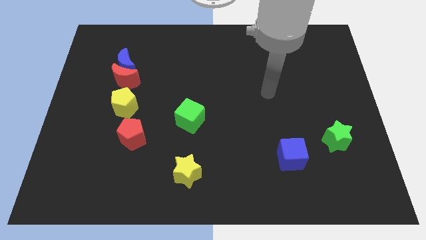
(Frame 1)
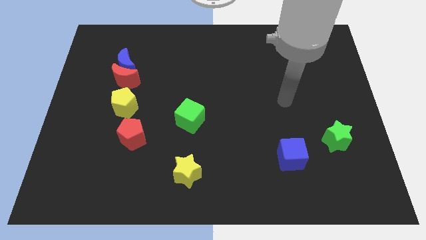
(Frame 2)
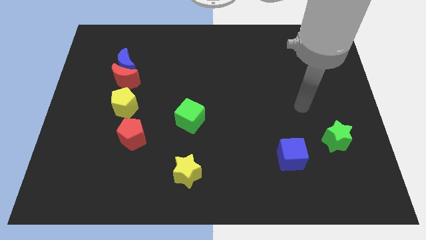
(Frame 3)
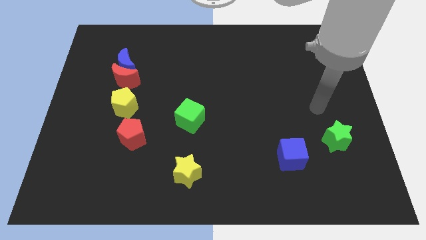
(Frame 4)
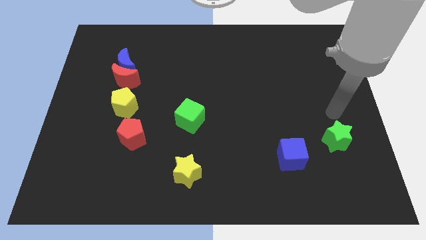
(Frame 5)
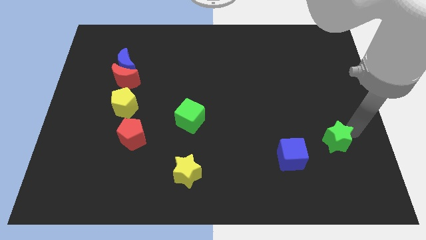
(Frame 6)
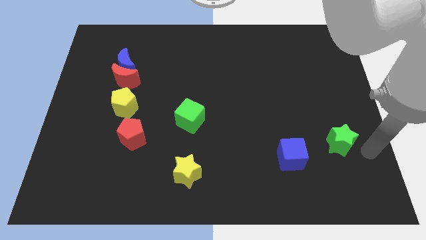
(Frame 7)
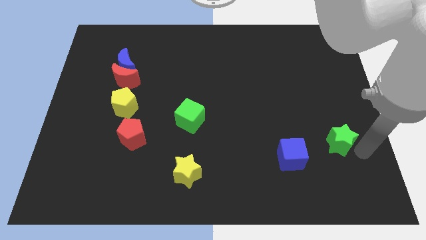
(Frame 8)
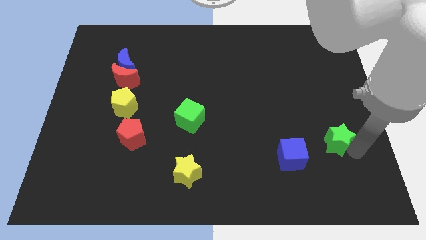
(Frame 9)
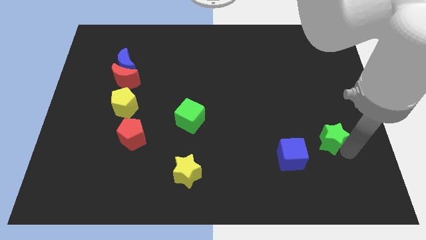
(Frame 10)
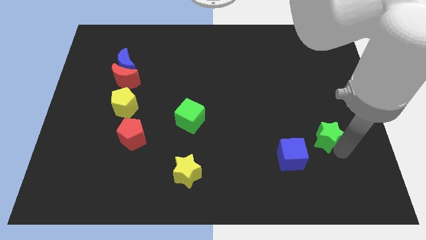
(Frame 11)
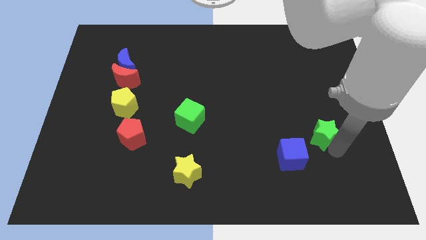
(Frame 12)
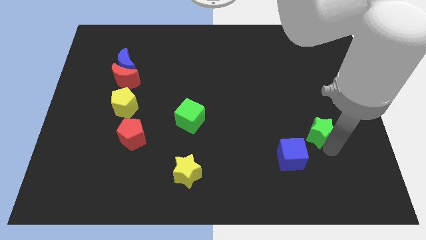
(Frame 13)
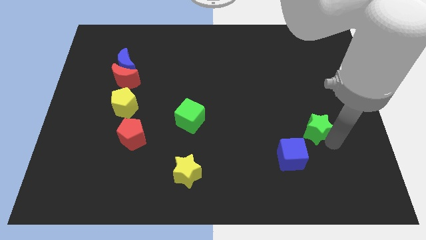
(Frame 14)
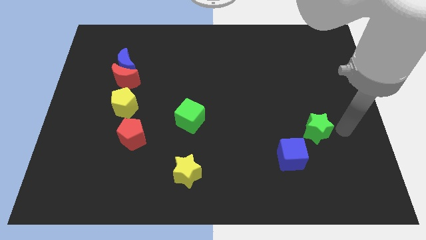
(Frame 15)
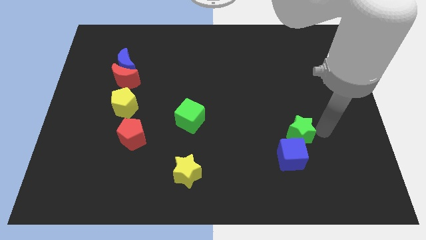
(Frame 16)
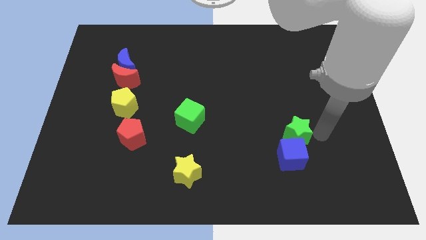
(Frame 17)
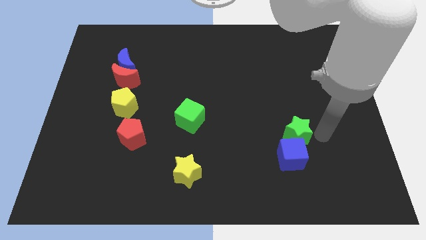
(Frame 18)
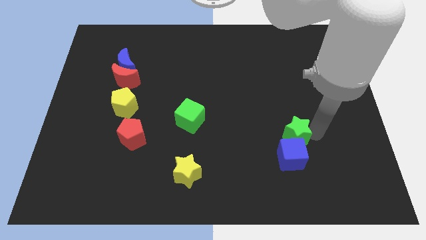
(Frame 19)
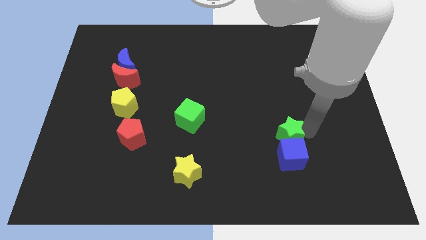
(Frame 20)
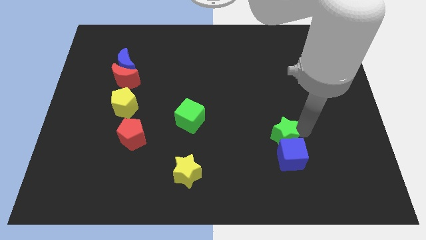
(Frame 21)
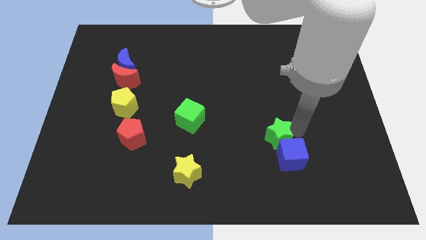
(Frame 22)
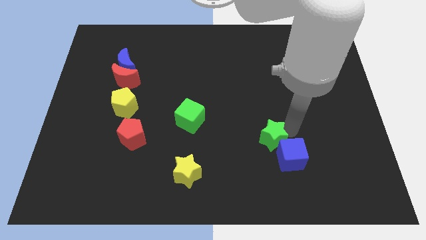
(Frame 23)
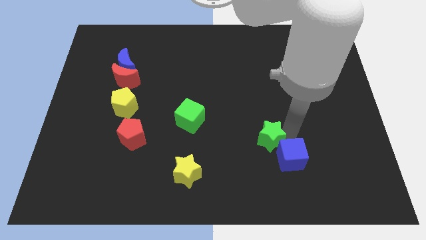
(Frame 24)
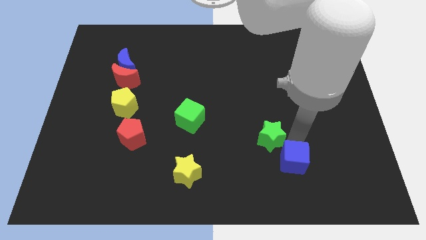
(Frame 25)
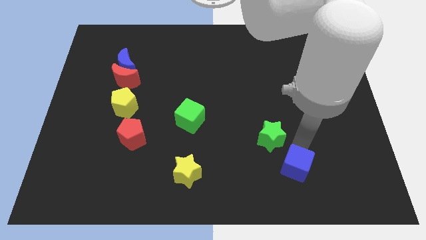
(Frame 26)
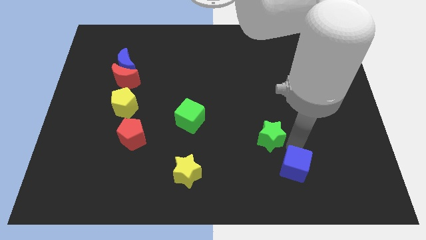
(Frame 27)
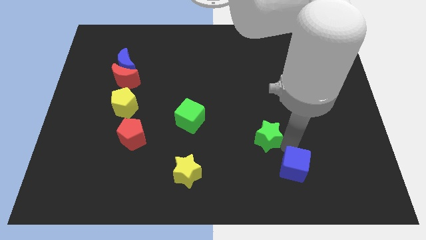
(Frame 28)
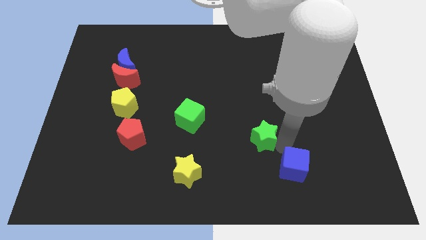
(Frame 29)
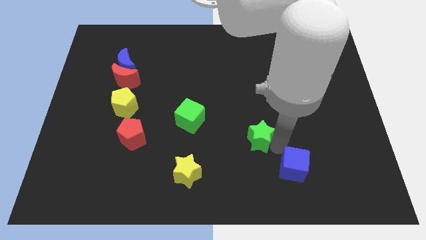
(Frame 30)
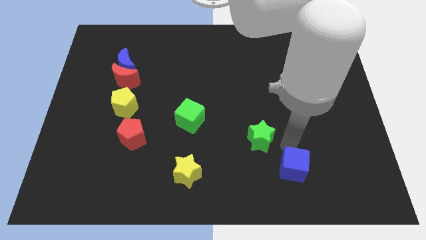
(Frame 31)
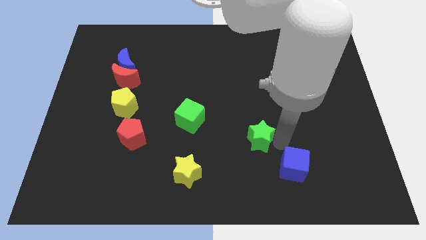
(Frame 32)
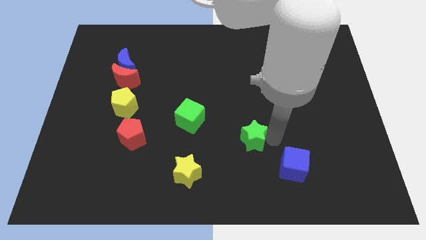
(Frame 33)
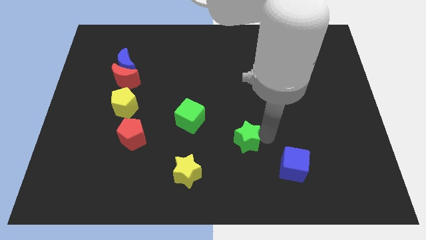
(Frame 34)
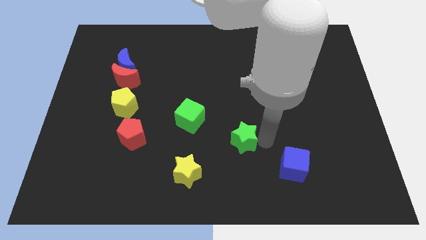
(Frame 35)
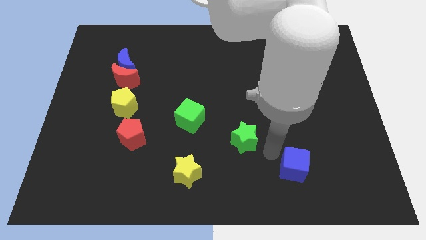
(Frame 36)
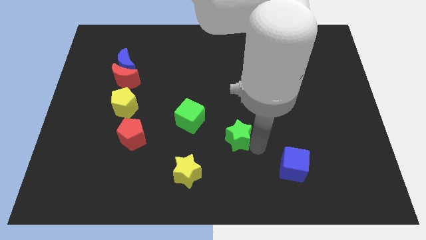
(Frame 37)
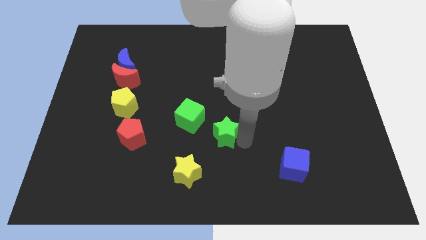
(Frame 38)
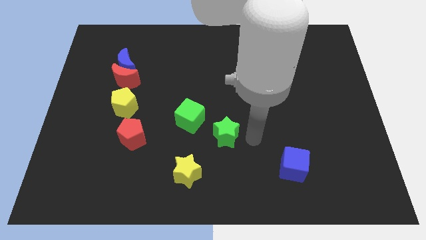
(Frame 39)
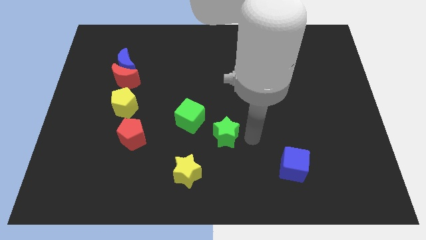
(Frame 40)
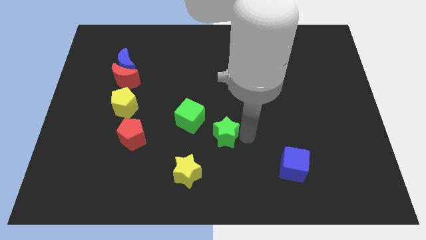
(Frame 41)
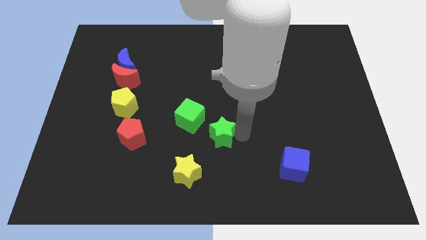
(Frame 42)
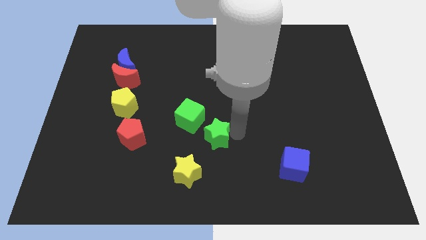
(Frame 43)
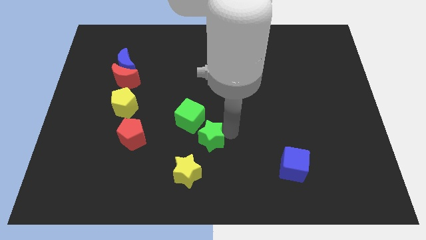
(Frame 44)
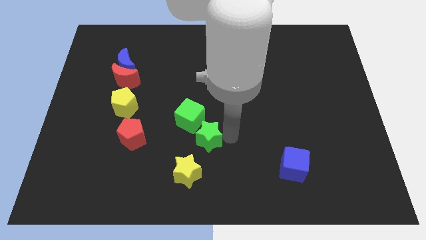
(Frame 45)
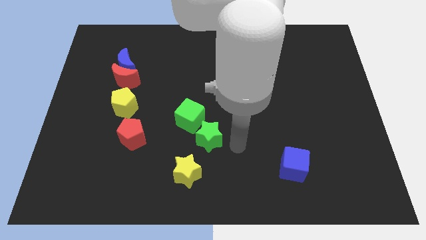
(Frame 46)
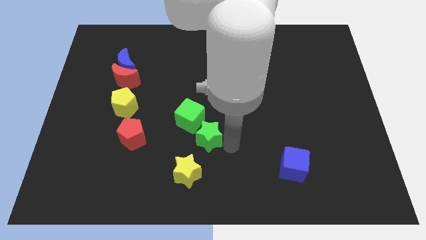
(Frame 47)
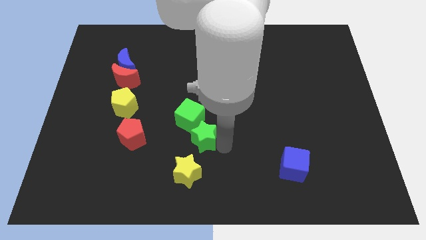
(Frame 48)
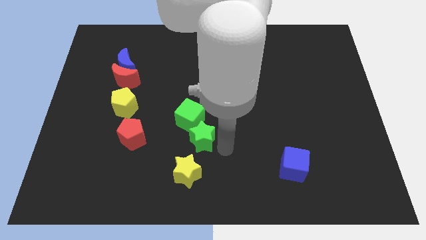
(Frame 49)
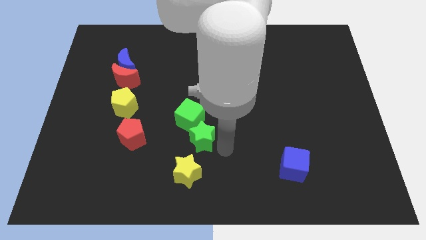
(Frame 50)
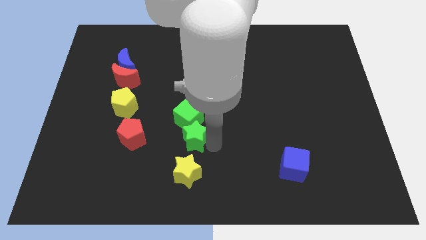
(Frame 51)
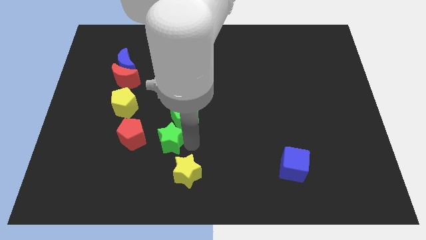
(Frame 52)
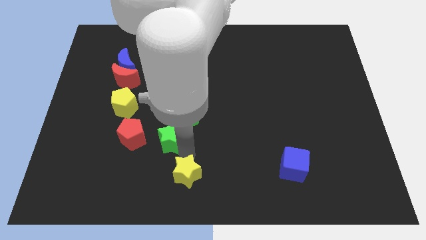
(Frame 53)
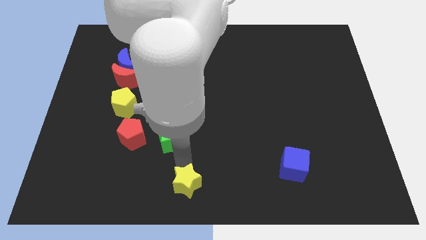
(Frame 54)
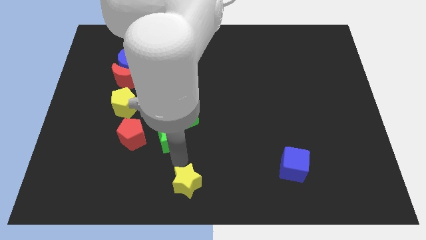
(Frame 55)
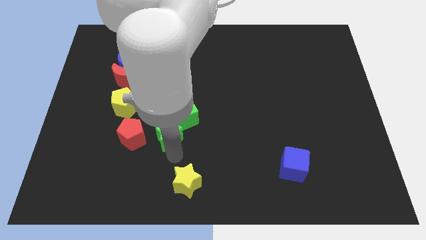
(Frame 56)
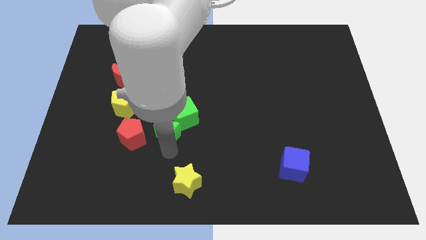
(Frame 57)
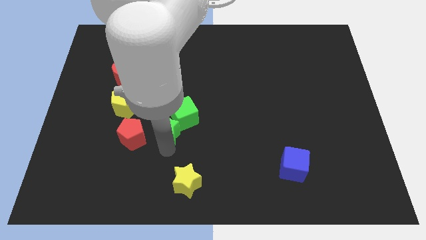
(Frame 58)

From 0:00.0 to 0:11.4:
put the green star to the top right side of the red pentagon

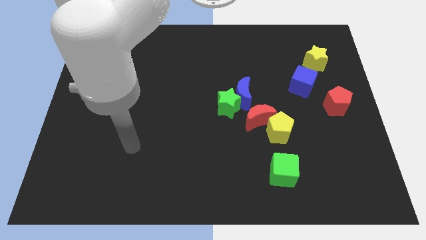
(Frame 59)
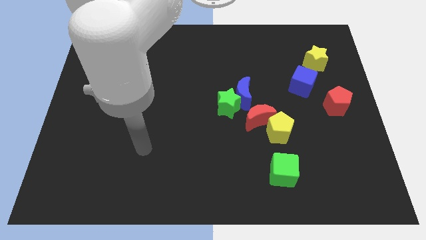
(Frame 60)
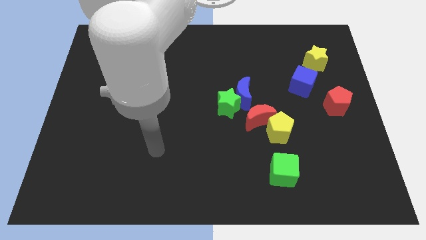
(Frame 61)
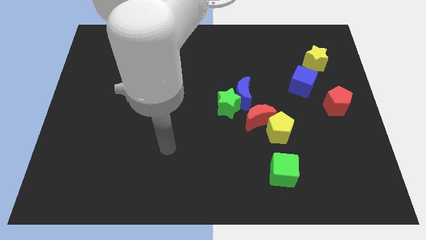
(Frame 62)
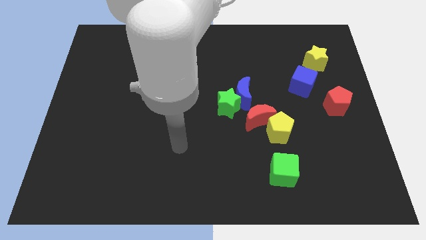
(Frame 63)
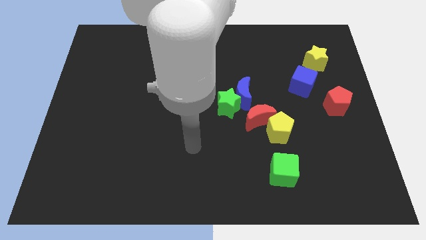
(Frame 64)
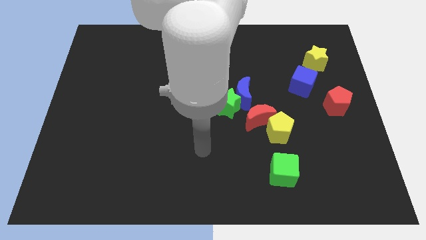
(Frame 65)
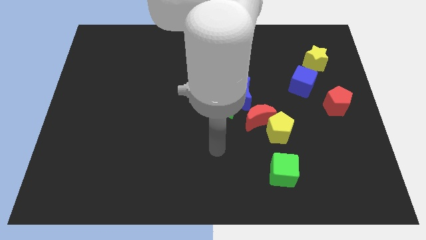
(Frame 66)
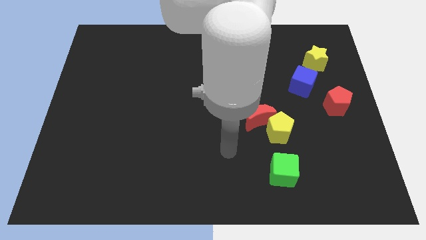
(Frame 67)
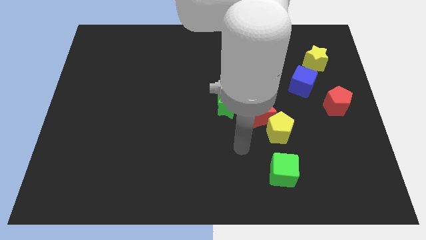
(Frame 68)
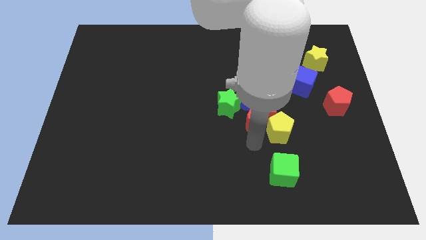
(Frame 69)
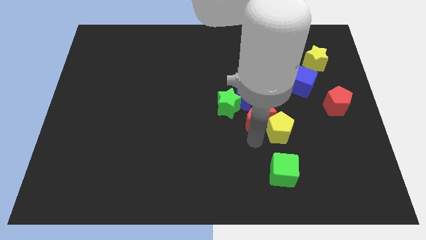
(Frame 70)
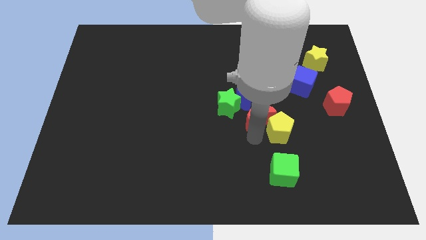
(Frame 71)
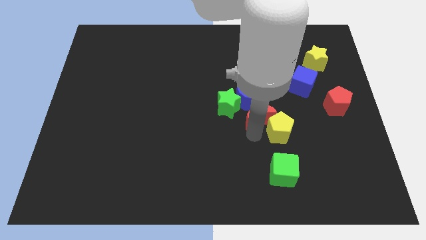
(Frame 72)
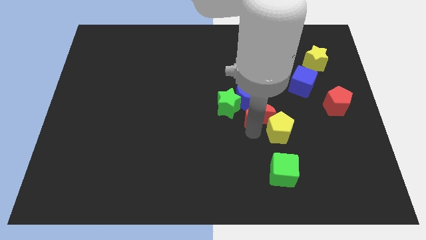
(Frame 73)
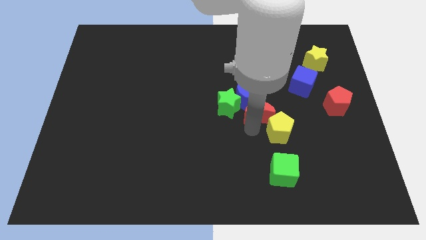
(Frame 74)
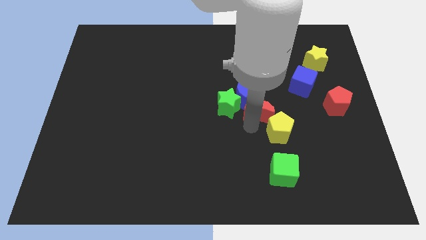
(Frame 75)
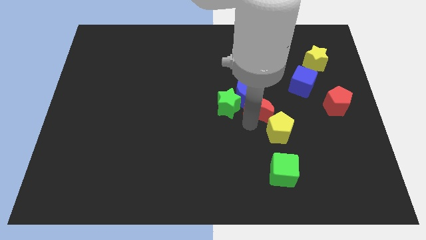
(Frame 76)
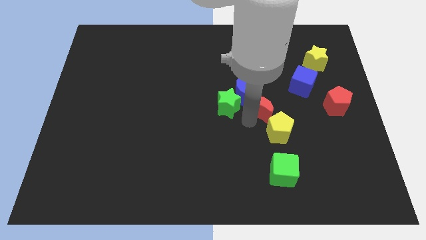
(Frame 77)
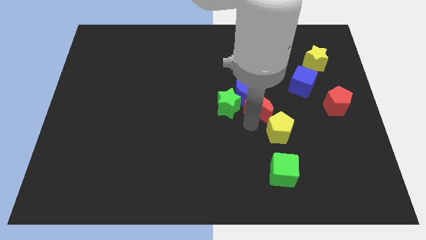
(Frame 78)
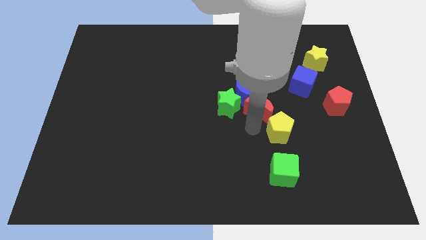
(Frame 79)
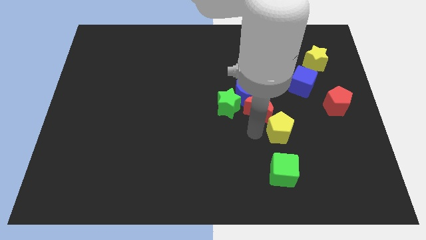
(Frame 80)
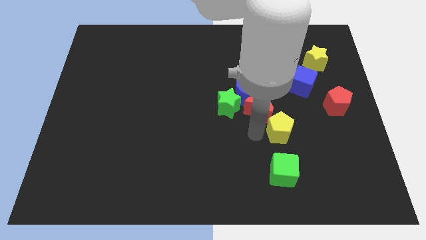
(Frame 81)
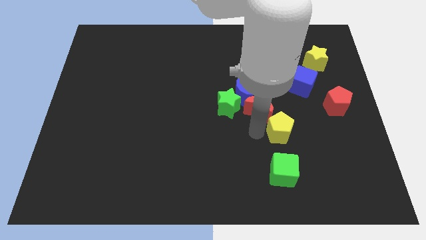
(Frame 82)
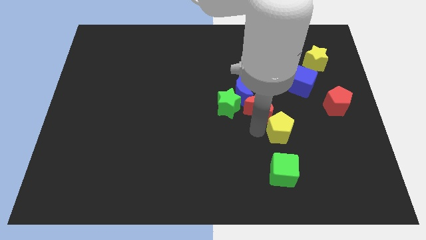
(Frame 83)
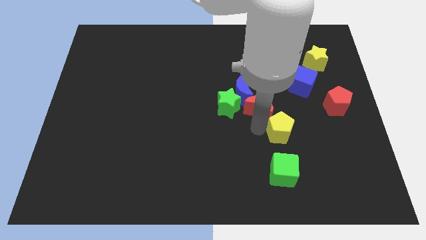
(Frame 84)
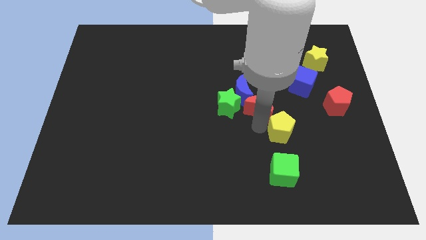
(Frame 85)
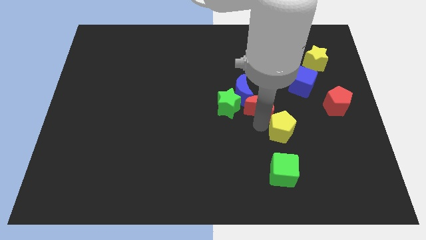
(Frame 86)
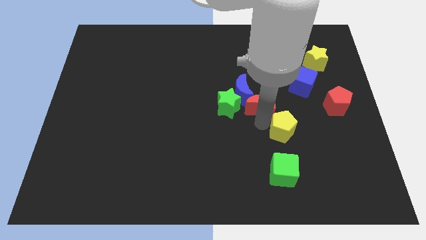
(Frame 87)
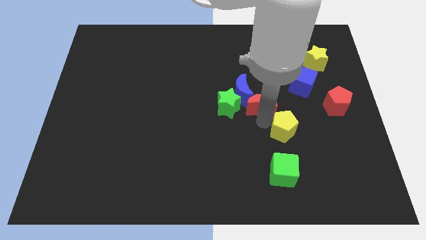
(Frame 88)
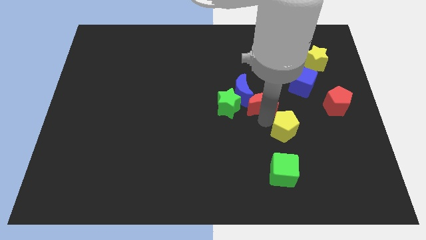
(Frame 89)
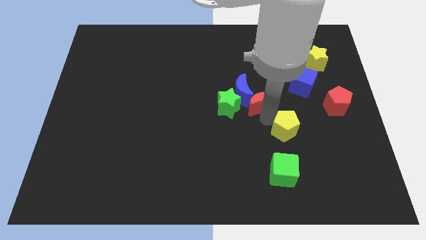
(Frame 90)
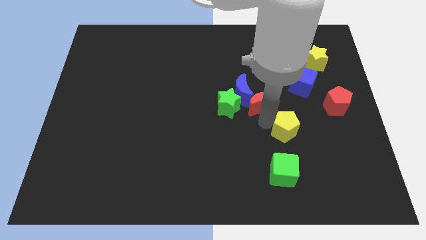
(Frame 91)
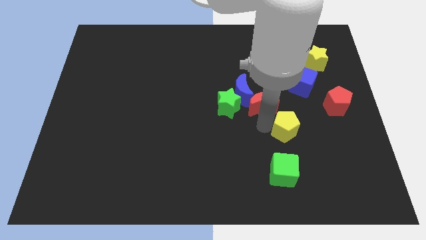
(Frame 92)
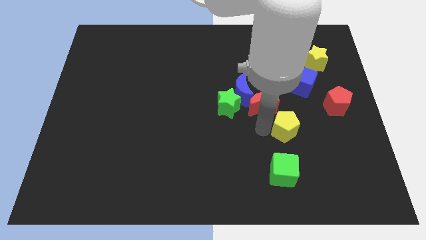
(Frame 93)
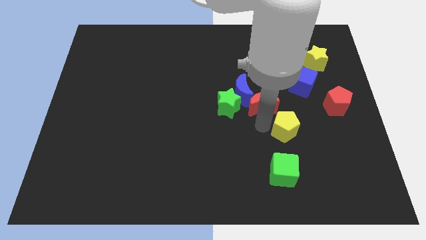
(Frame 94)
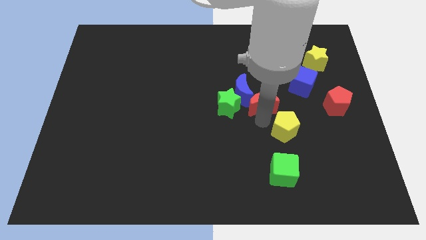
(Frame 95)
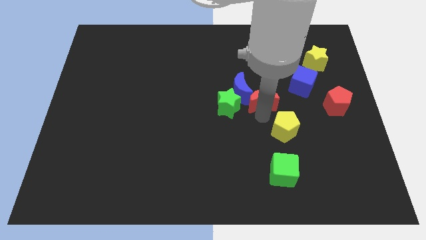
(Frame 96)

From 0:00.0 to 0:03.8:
put the red moon to the top right of the green star
